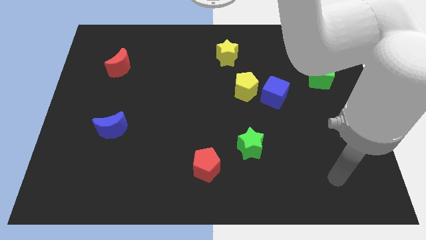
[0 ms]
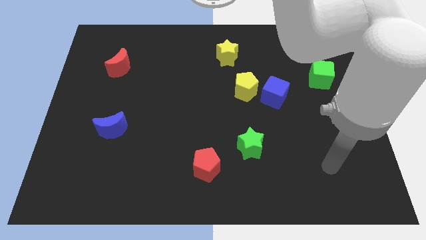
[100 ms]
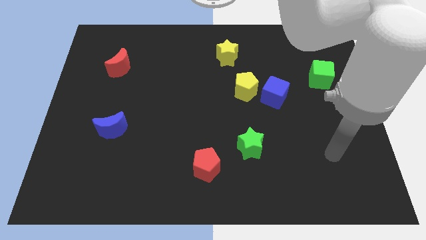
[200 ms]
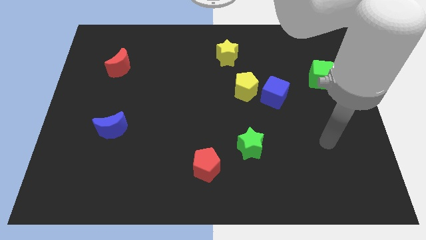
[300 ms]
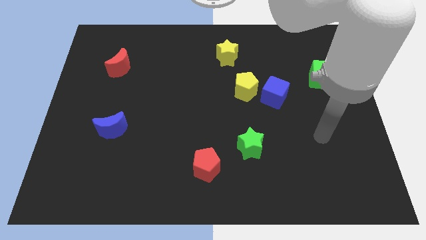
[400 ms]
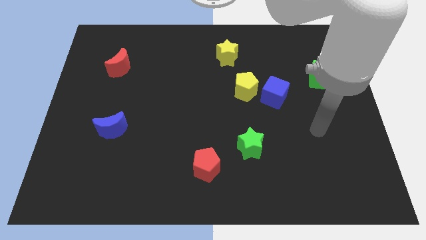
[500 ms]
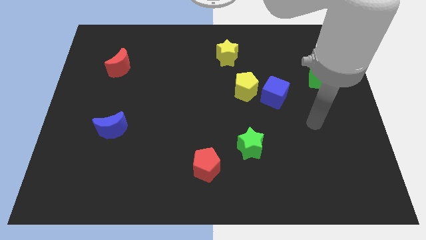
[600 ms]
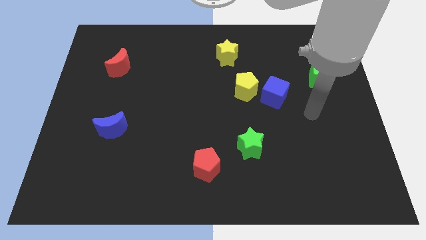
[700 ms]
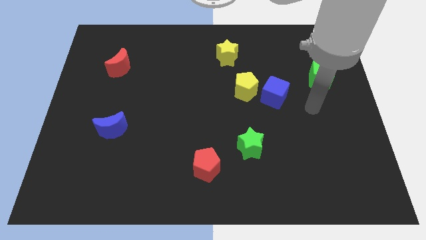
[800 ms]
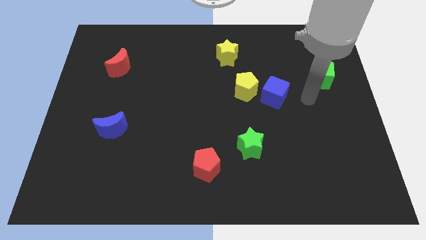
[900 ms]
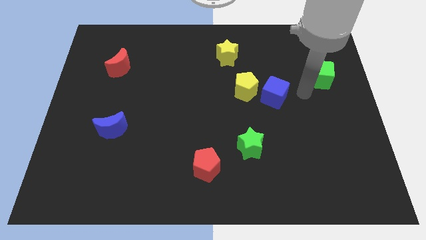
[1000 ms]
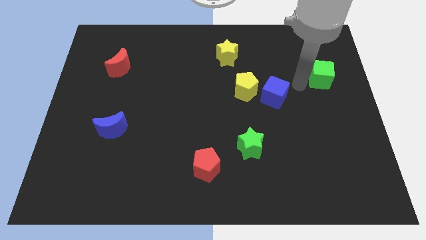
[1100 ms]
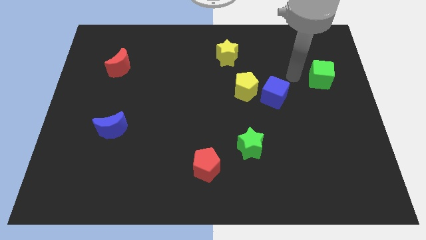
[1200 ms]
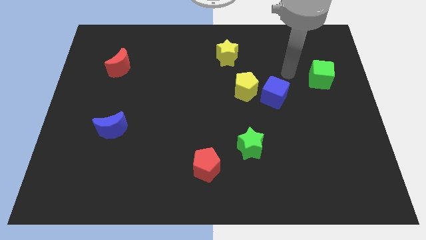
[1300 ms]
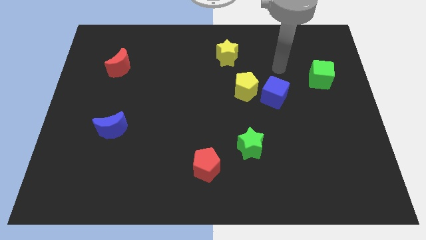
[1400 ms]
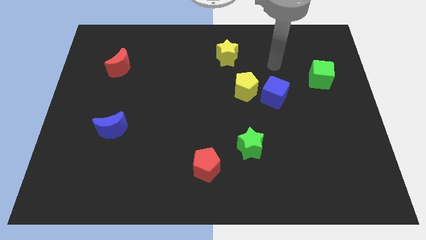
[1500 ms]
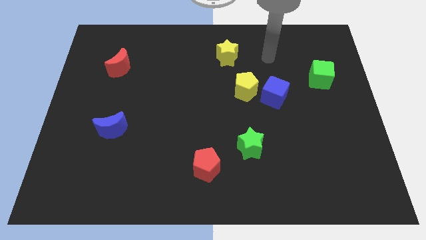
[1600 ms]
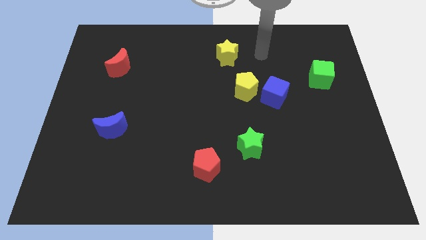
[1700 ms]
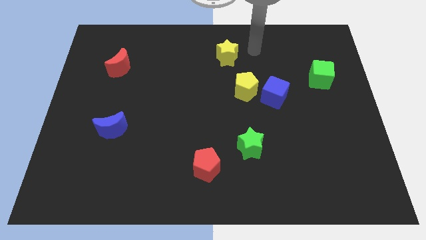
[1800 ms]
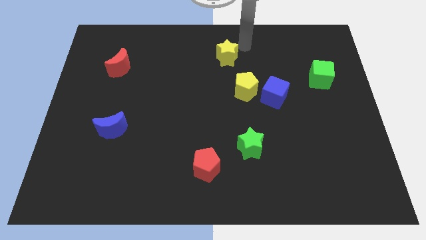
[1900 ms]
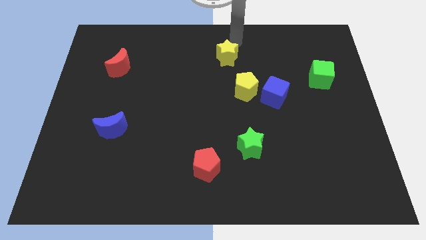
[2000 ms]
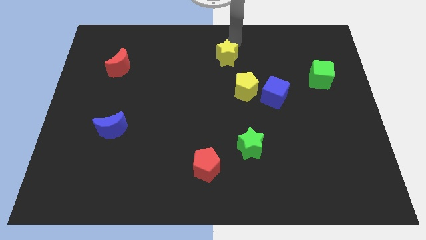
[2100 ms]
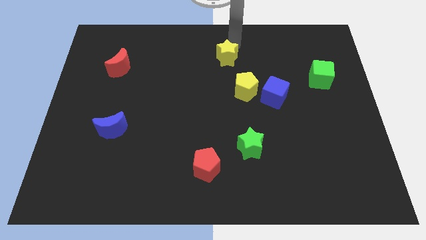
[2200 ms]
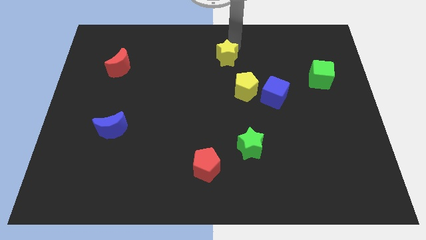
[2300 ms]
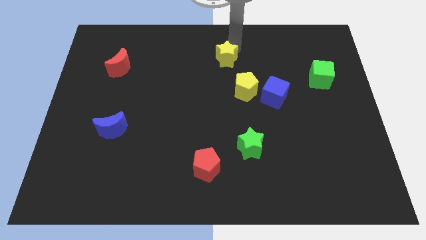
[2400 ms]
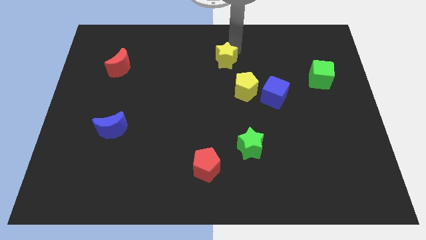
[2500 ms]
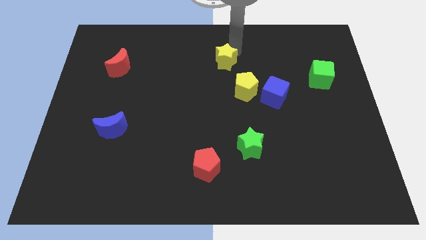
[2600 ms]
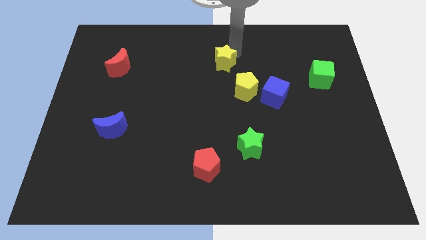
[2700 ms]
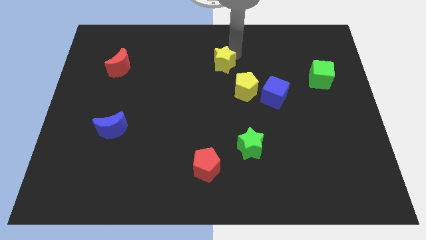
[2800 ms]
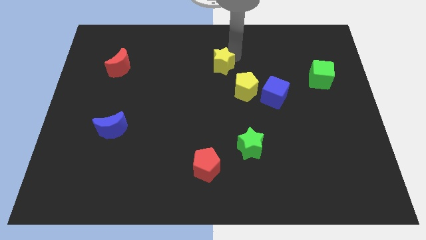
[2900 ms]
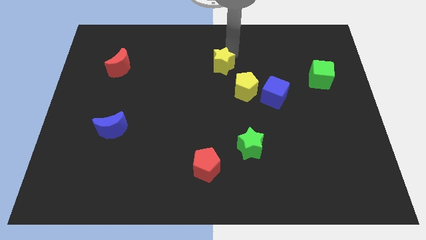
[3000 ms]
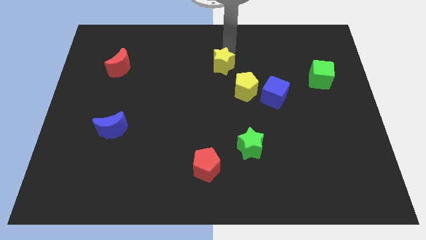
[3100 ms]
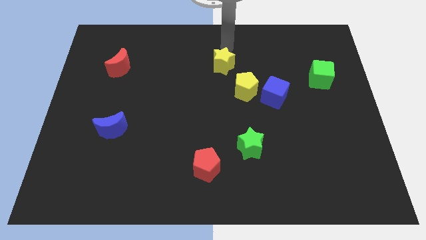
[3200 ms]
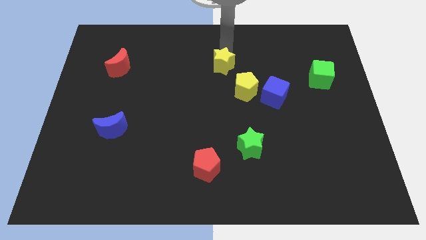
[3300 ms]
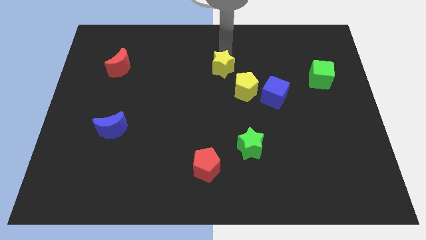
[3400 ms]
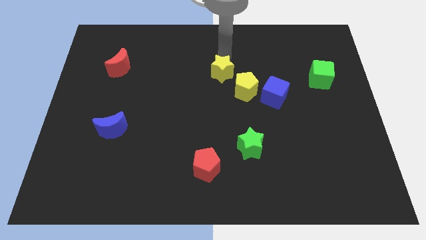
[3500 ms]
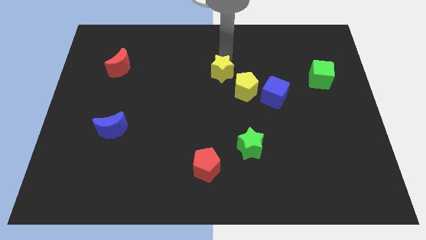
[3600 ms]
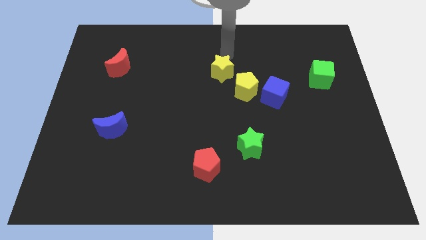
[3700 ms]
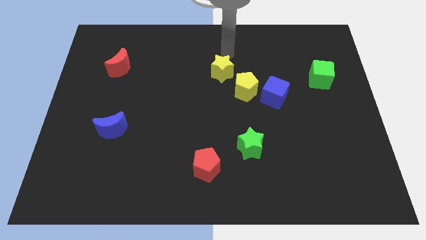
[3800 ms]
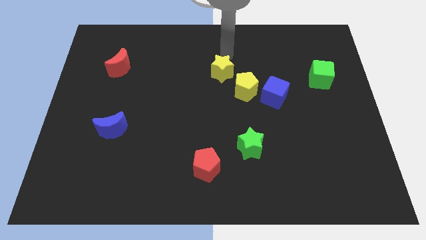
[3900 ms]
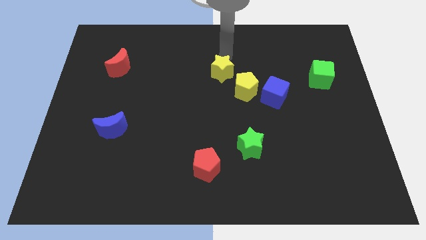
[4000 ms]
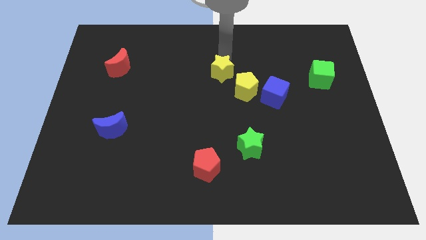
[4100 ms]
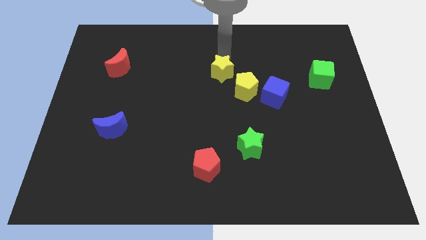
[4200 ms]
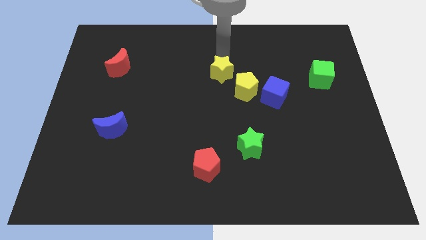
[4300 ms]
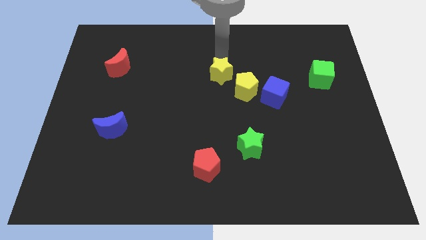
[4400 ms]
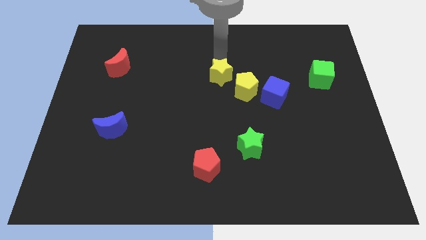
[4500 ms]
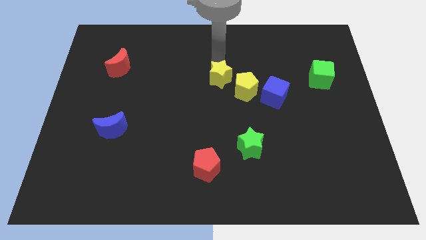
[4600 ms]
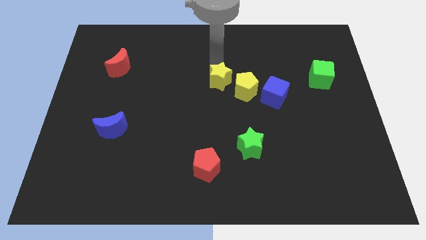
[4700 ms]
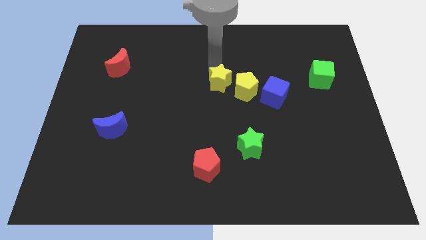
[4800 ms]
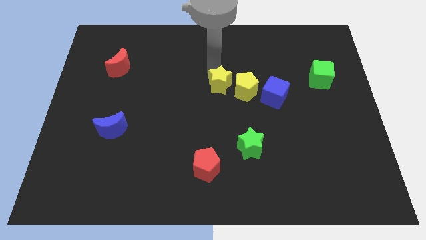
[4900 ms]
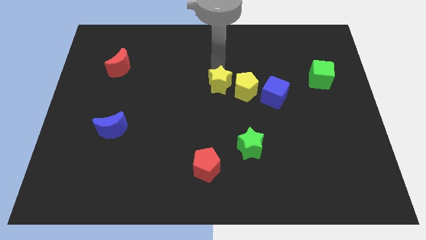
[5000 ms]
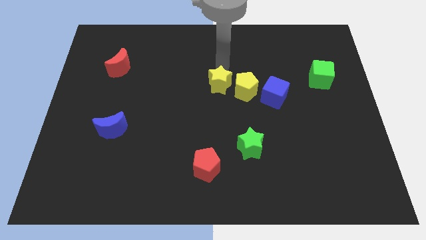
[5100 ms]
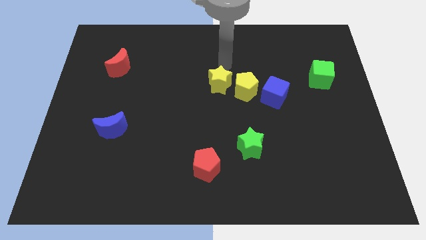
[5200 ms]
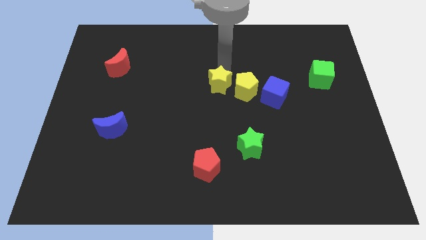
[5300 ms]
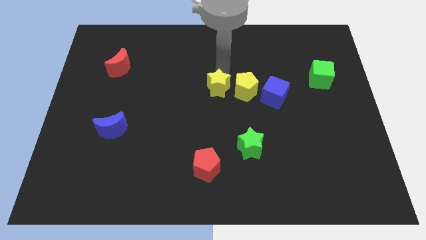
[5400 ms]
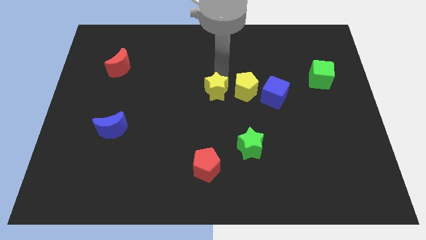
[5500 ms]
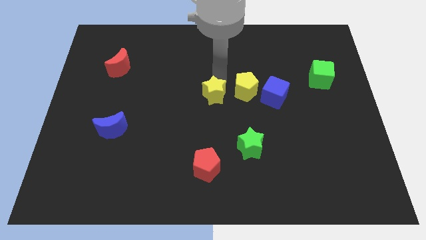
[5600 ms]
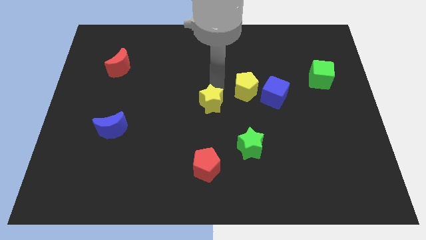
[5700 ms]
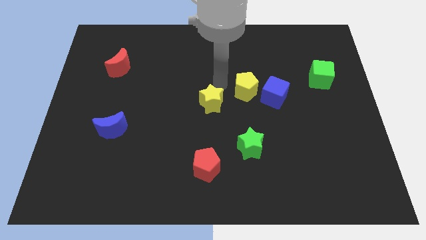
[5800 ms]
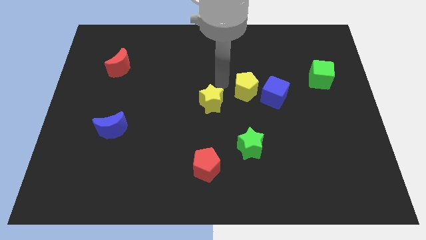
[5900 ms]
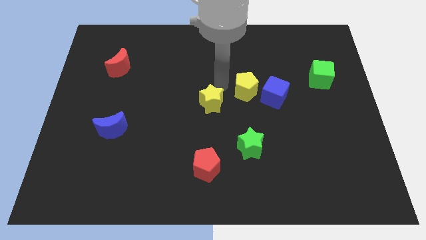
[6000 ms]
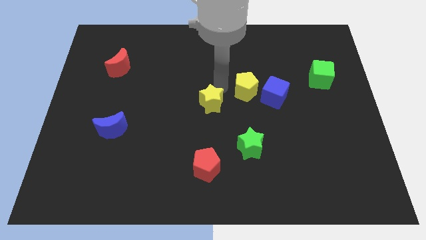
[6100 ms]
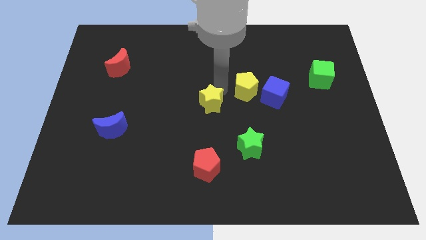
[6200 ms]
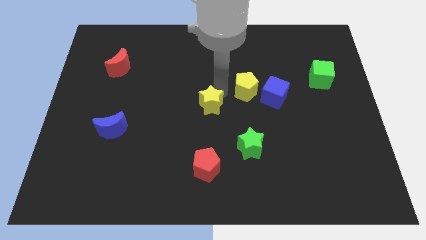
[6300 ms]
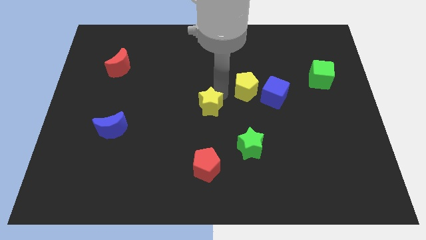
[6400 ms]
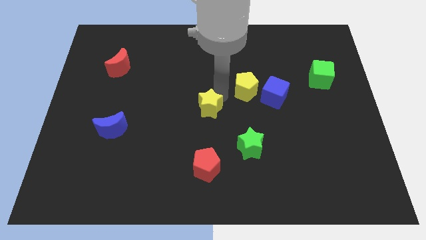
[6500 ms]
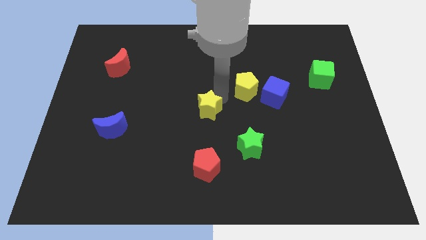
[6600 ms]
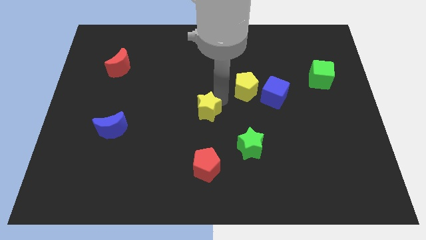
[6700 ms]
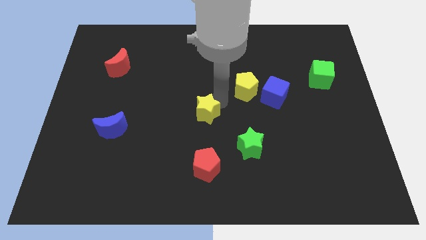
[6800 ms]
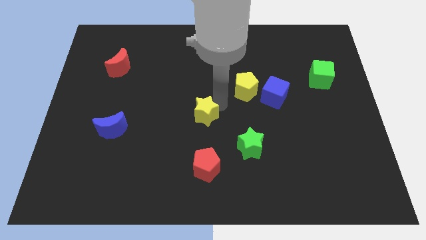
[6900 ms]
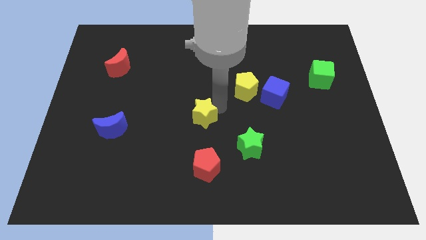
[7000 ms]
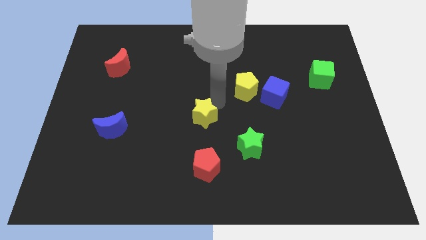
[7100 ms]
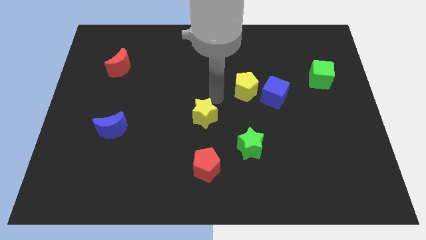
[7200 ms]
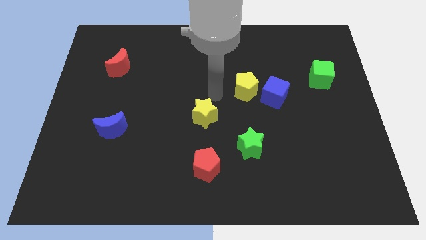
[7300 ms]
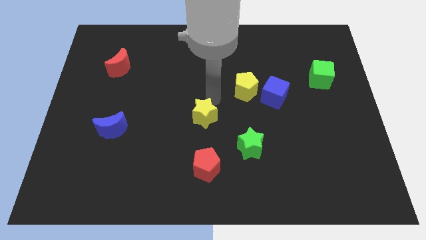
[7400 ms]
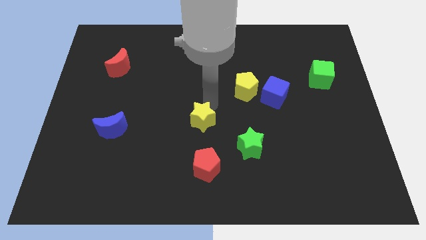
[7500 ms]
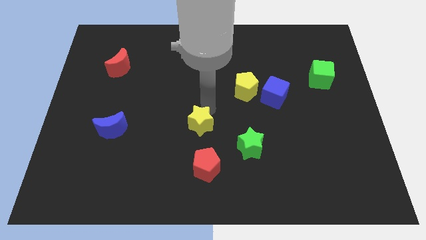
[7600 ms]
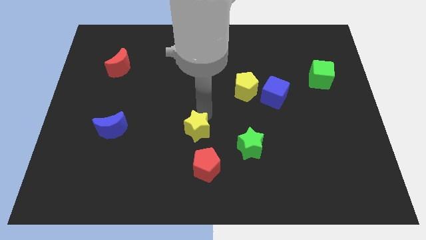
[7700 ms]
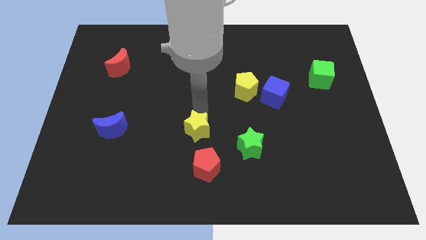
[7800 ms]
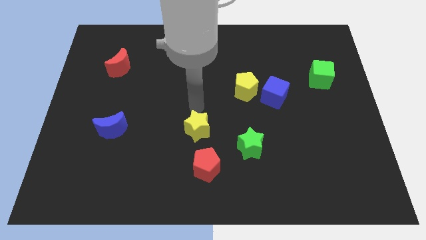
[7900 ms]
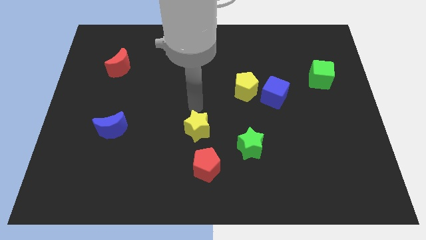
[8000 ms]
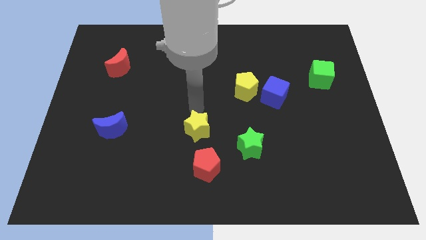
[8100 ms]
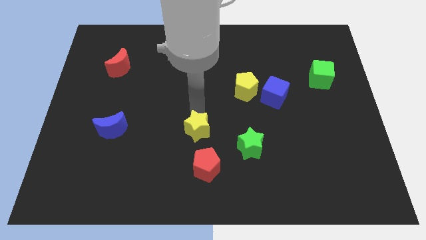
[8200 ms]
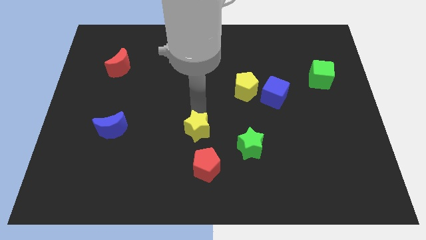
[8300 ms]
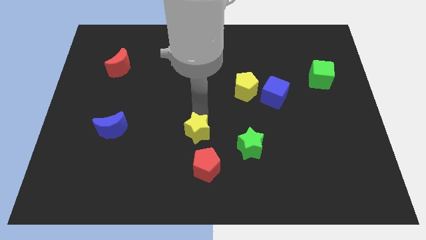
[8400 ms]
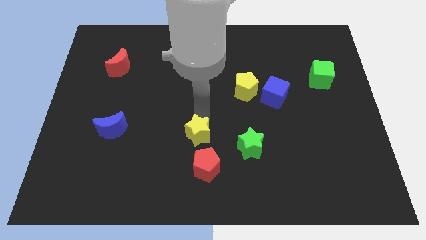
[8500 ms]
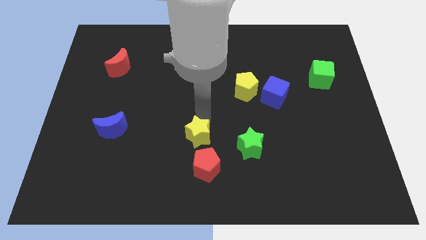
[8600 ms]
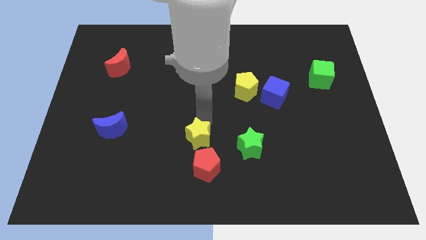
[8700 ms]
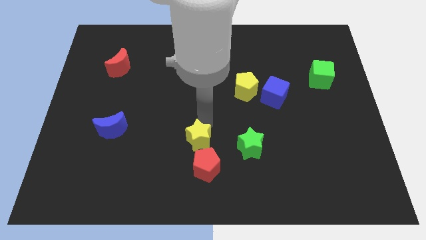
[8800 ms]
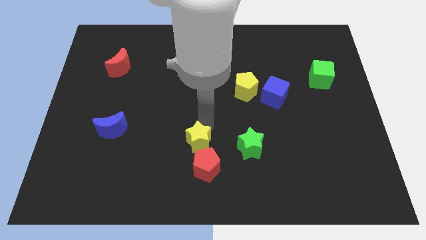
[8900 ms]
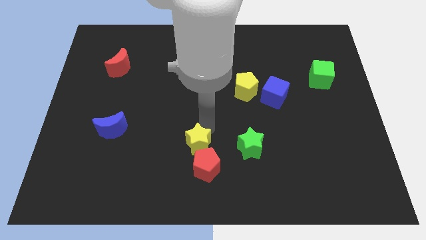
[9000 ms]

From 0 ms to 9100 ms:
move the yellow star towards the red pentagon
